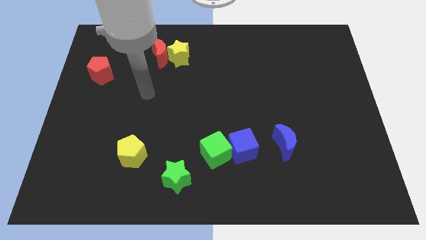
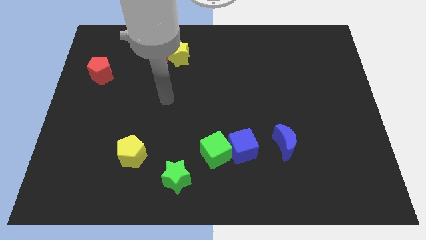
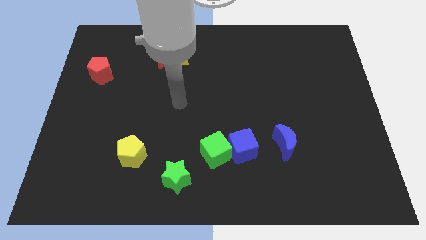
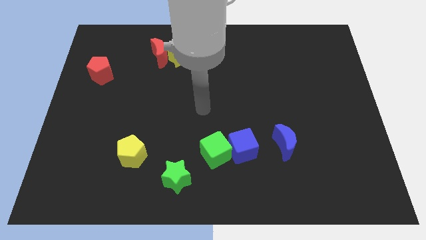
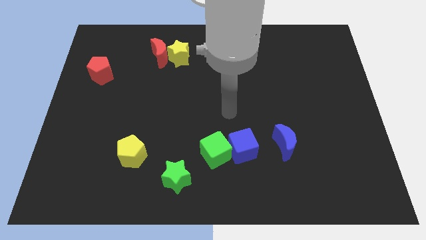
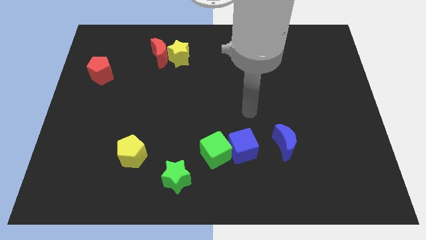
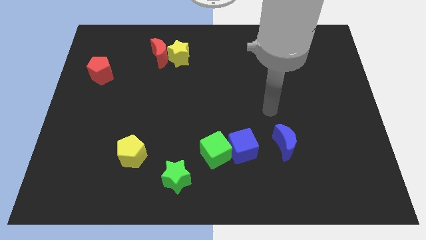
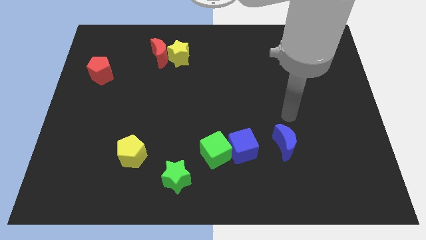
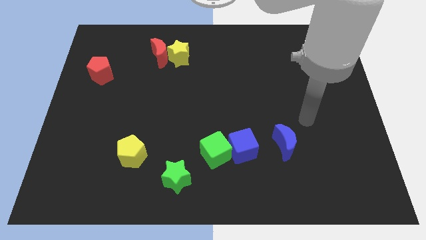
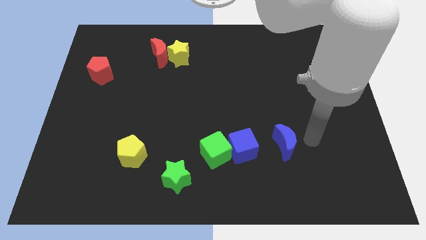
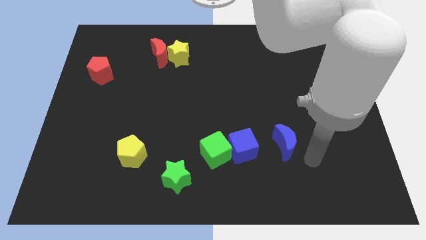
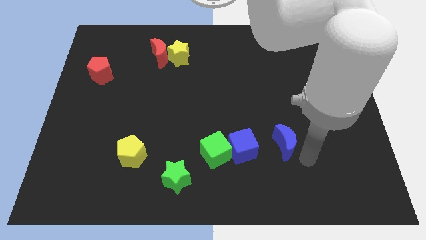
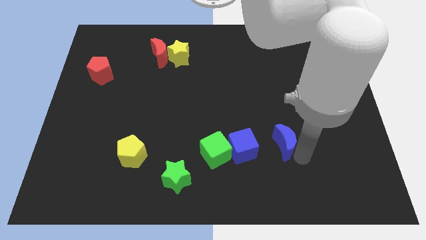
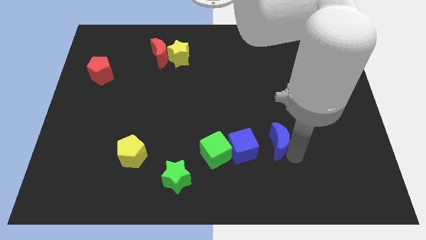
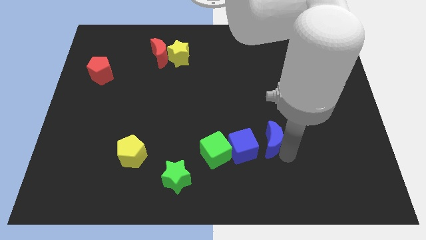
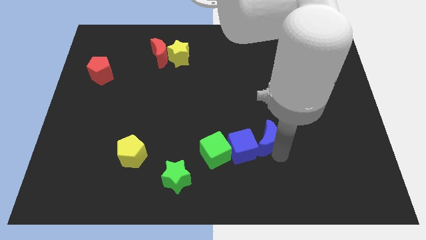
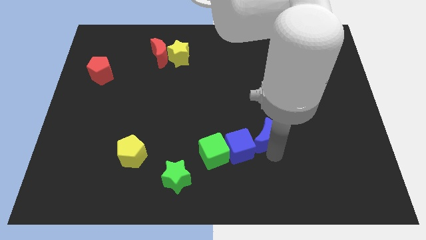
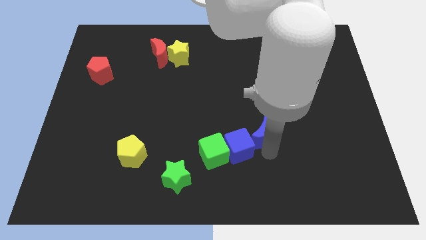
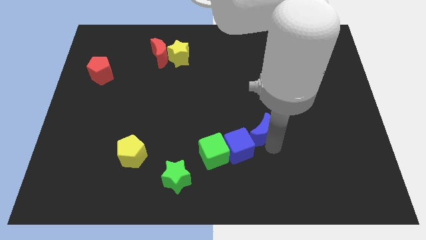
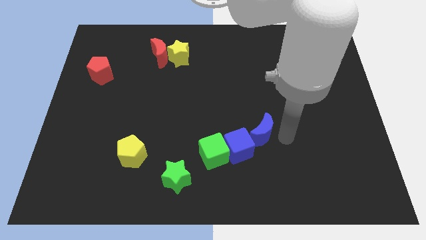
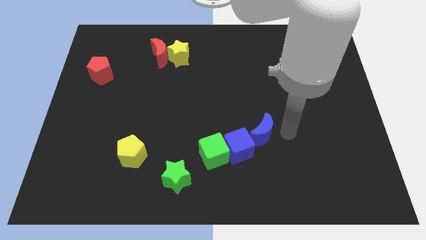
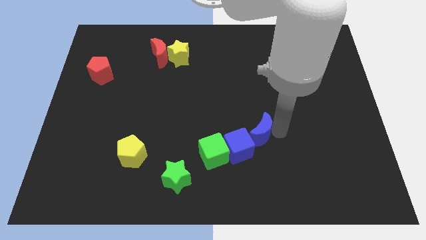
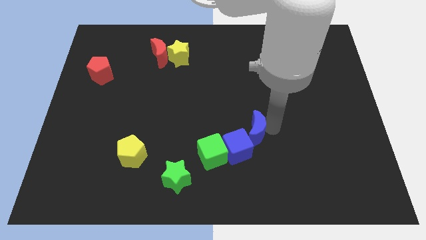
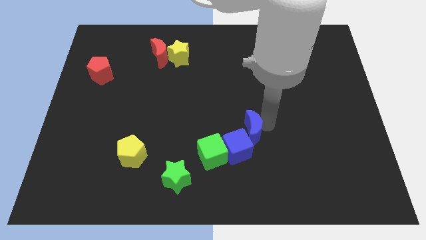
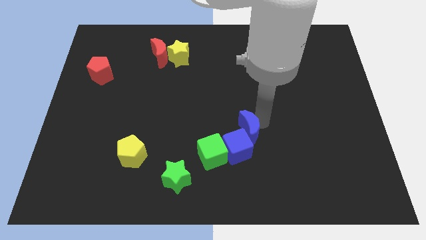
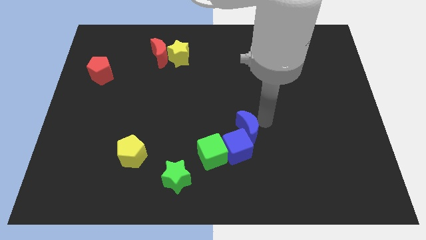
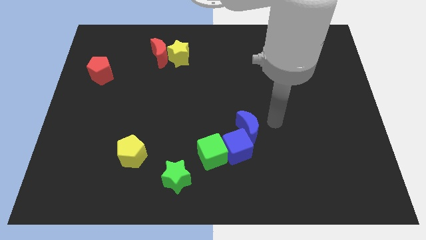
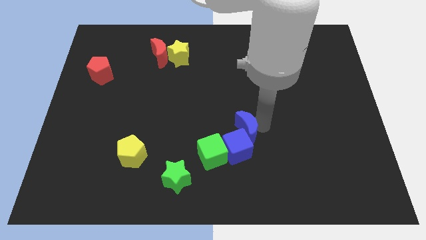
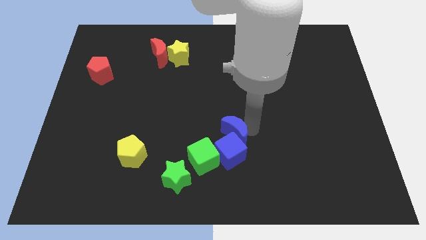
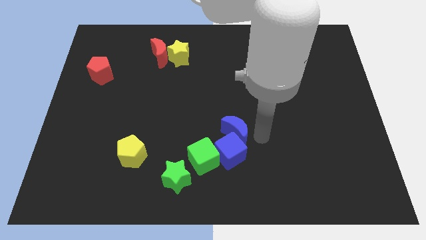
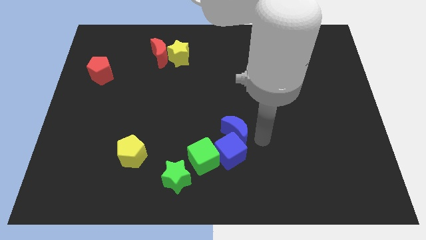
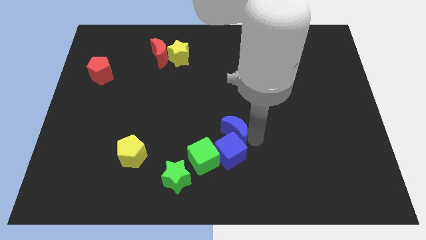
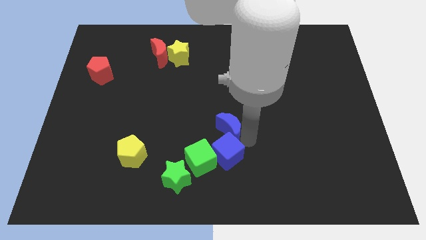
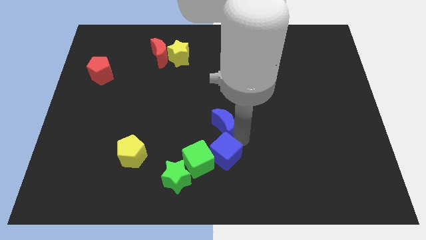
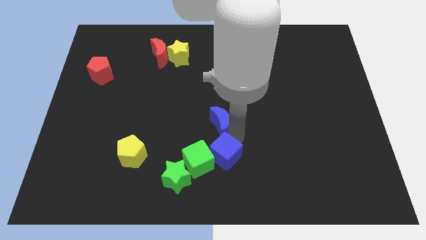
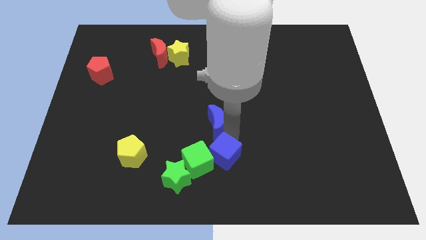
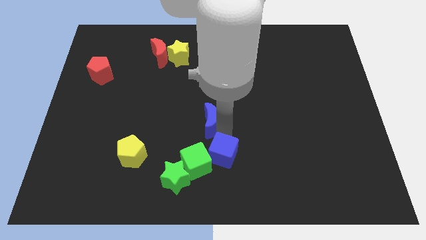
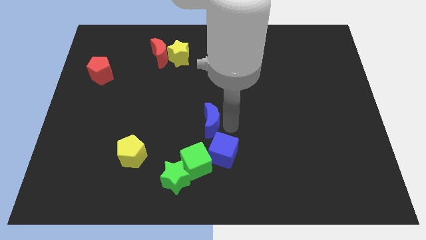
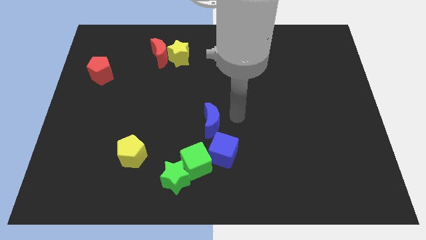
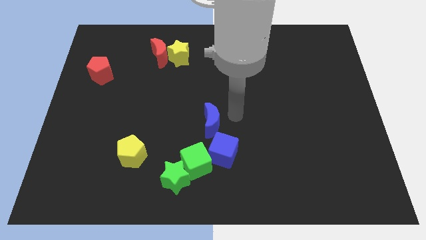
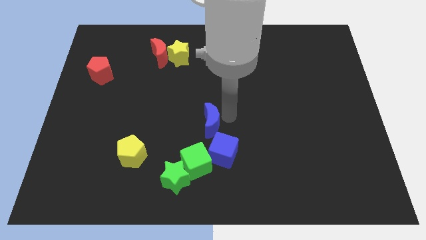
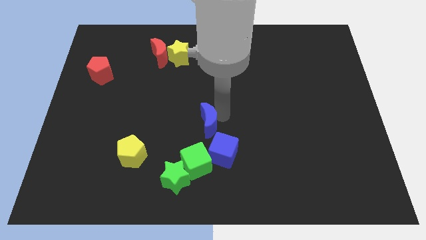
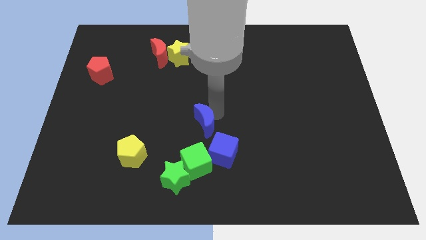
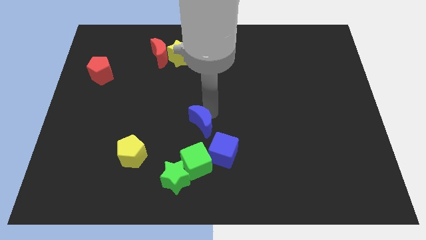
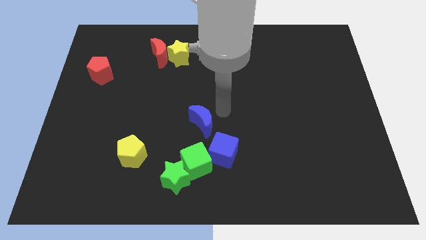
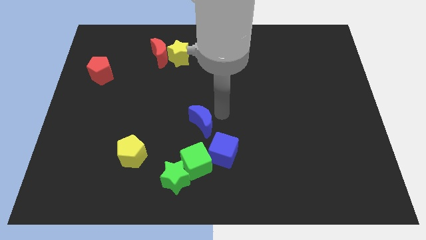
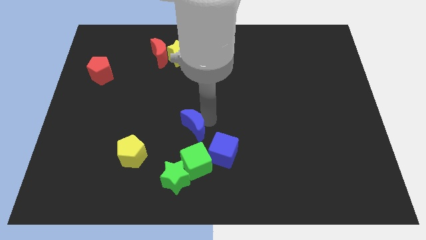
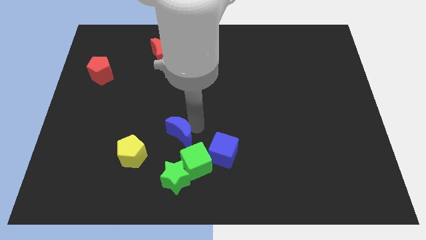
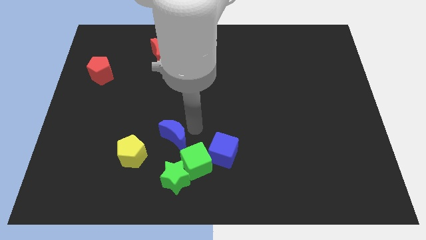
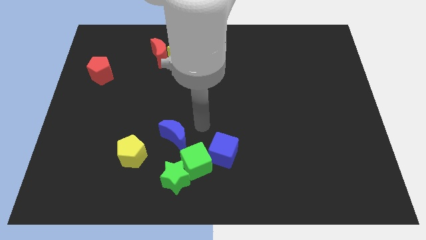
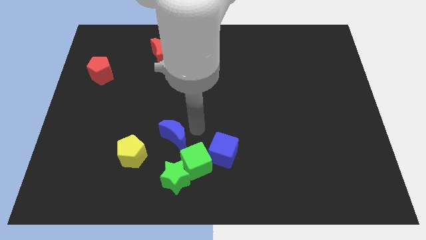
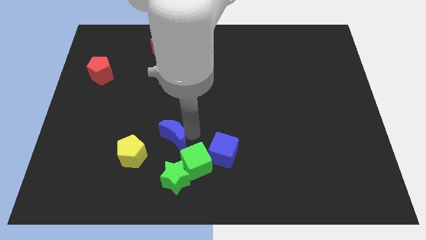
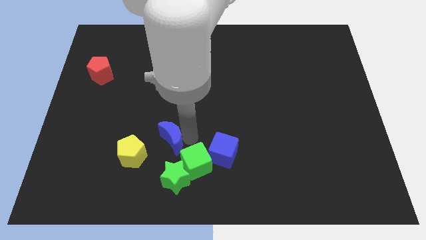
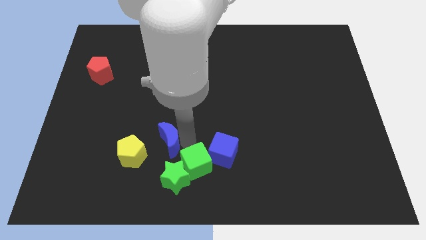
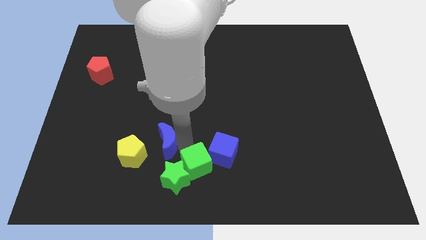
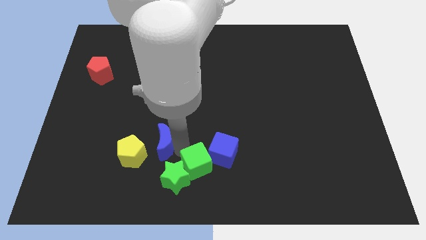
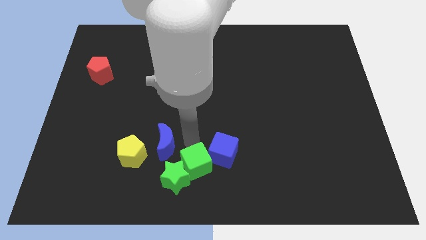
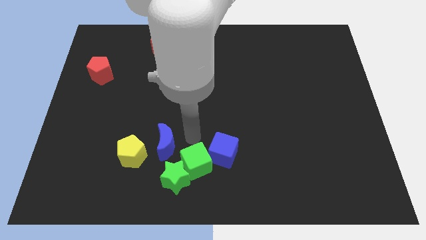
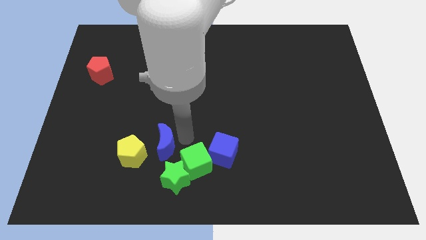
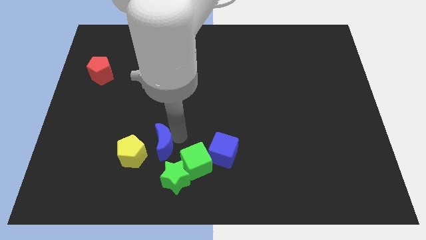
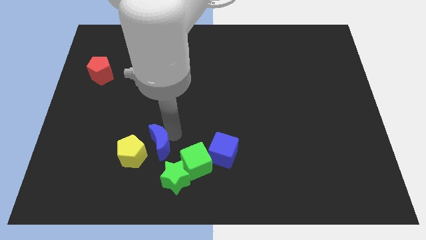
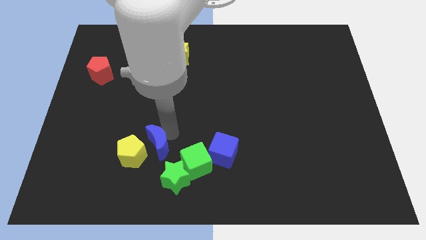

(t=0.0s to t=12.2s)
put the blue moon close to the yellow pentagon
